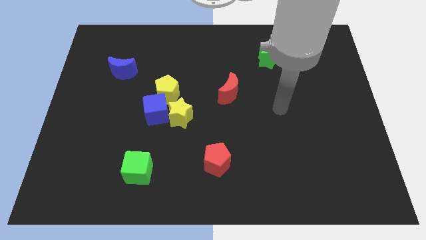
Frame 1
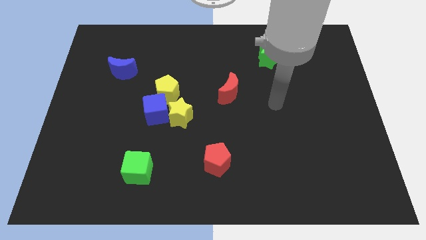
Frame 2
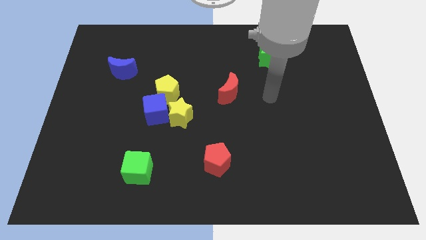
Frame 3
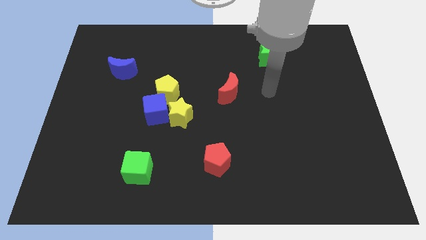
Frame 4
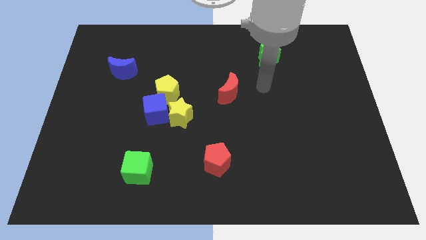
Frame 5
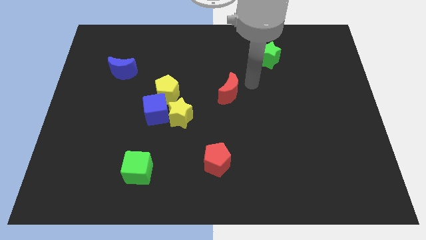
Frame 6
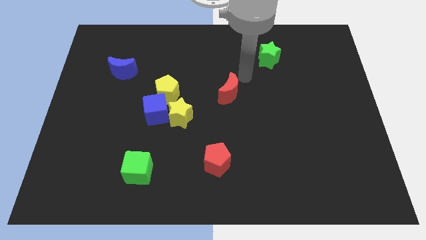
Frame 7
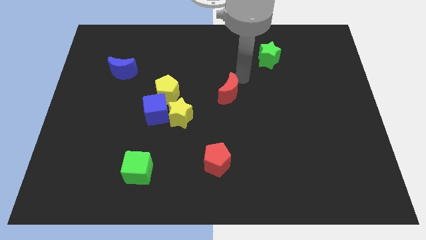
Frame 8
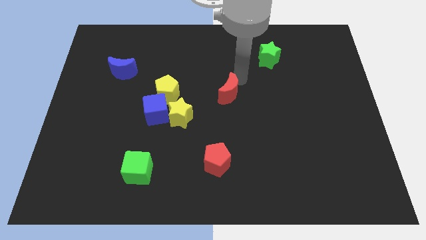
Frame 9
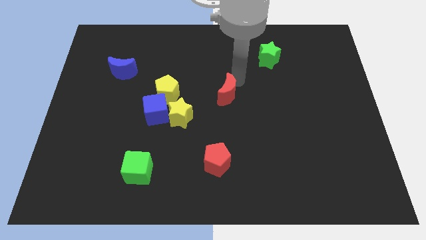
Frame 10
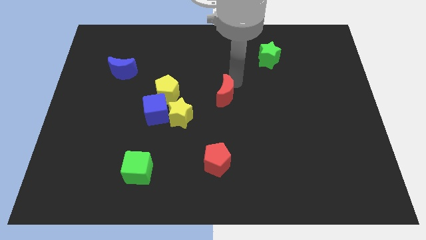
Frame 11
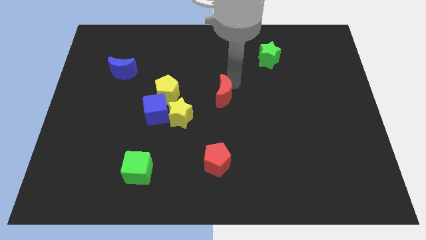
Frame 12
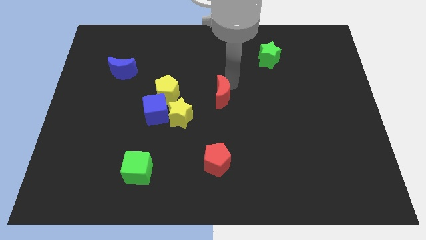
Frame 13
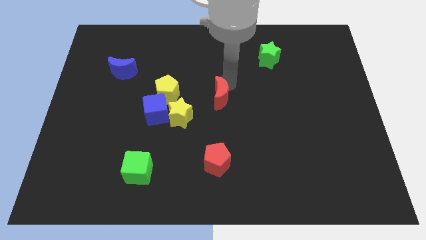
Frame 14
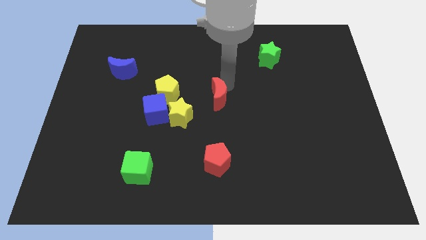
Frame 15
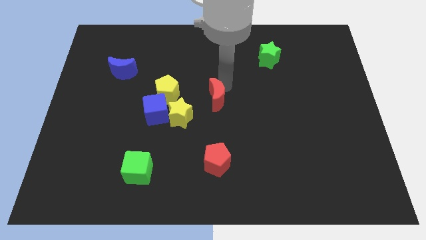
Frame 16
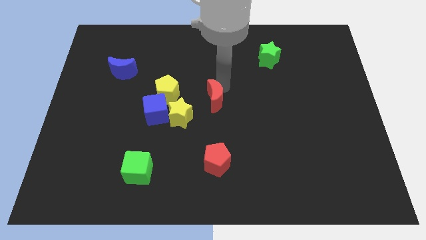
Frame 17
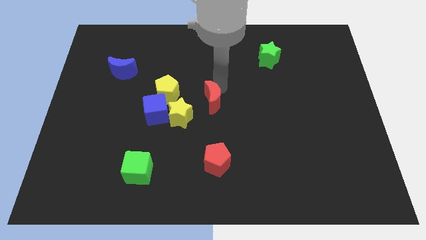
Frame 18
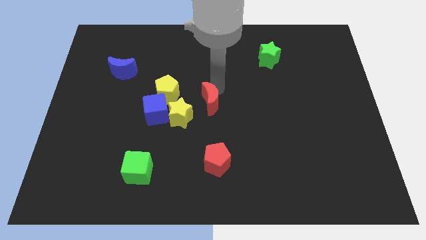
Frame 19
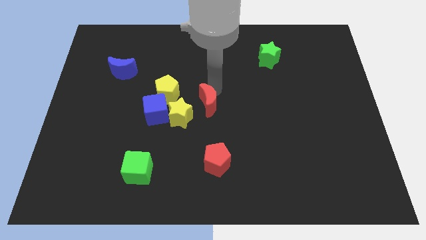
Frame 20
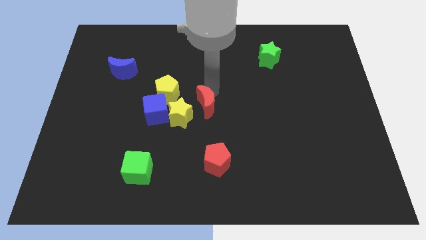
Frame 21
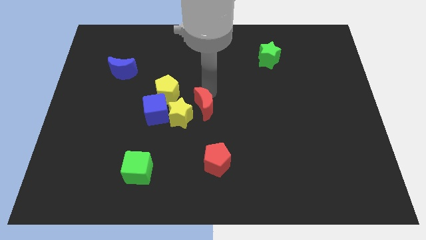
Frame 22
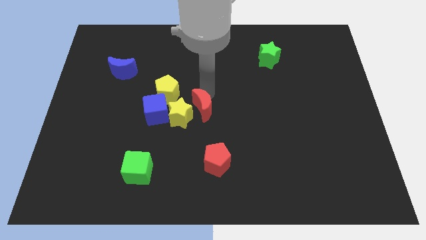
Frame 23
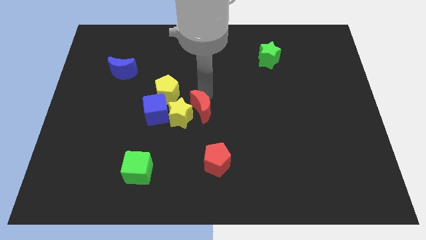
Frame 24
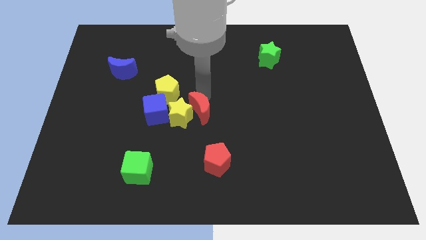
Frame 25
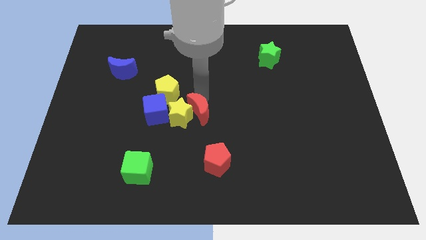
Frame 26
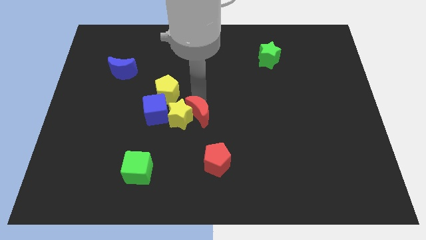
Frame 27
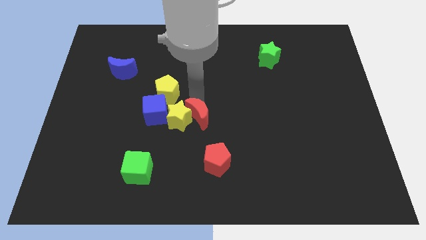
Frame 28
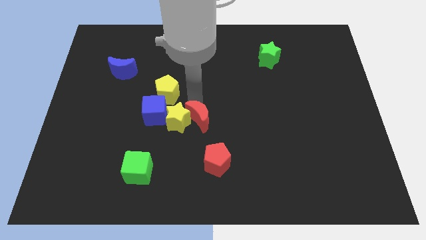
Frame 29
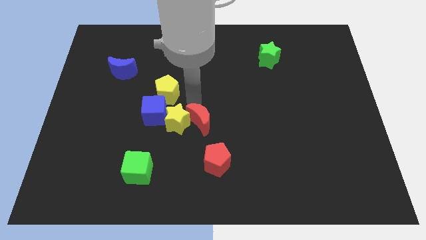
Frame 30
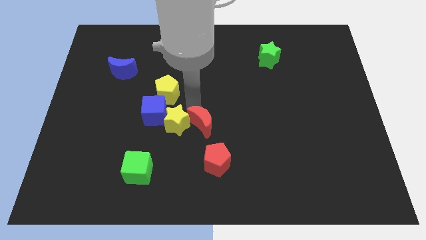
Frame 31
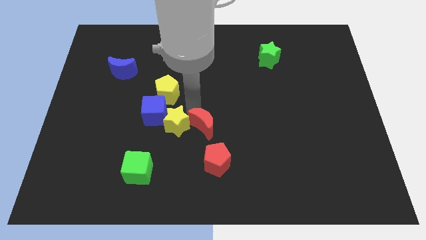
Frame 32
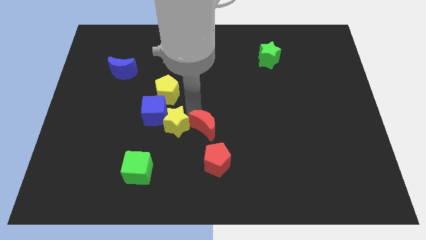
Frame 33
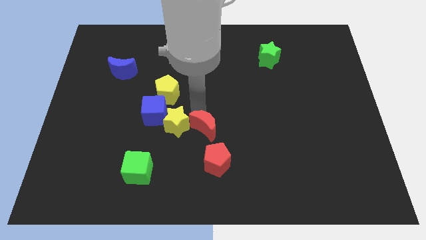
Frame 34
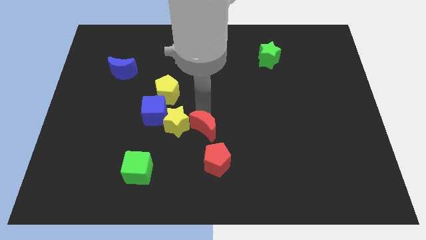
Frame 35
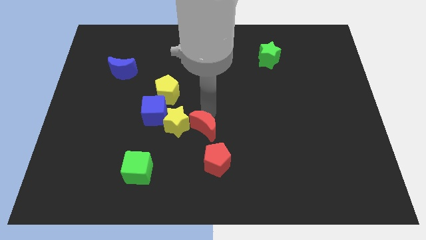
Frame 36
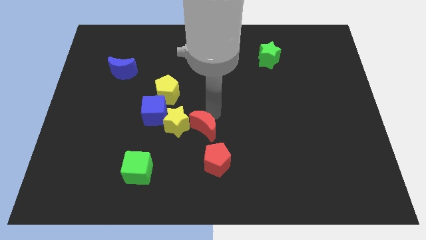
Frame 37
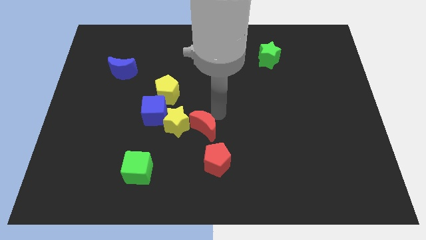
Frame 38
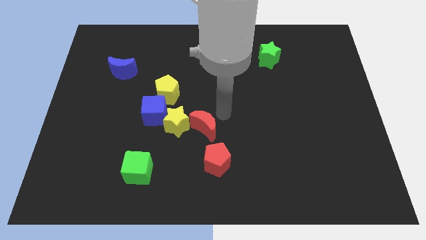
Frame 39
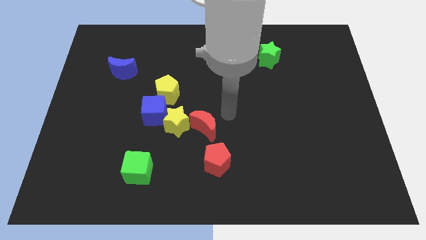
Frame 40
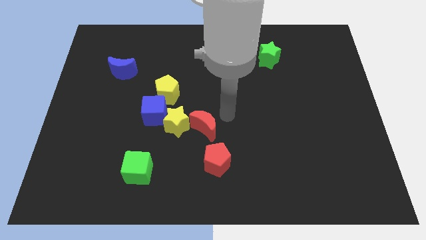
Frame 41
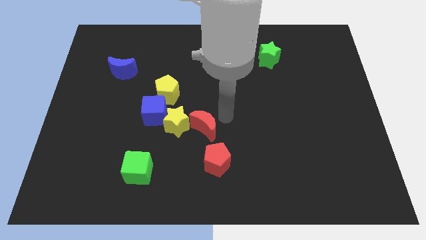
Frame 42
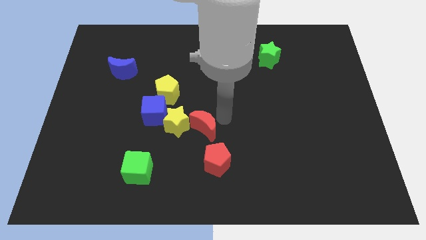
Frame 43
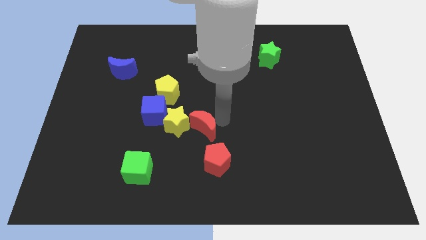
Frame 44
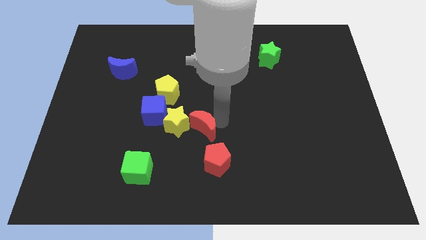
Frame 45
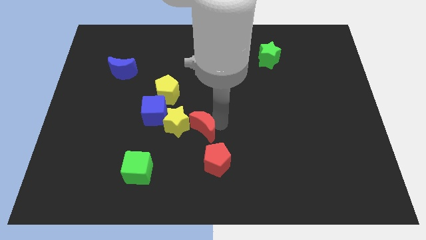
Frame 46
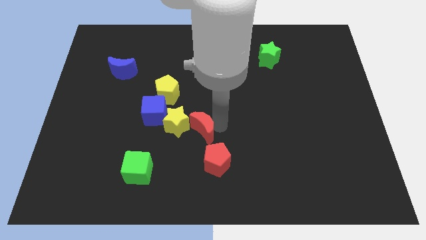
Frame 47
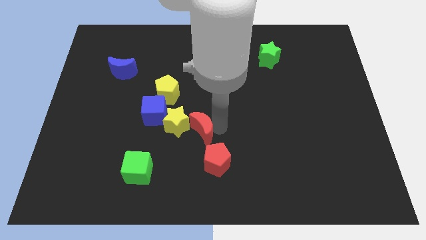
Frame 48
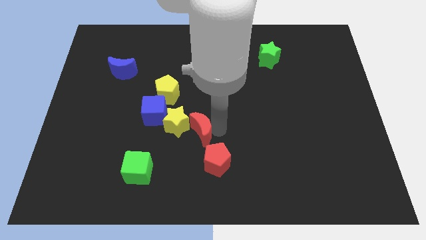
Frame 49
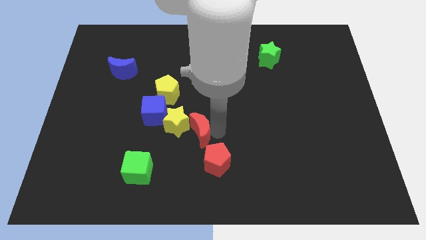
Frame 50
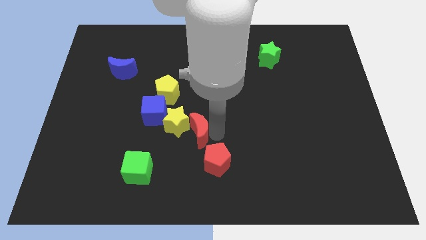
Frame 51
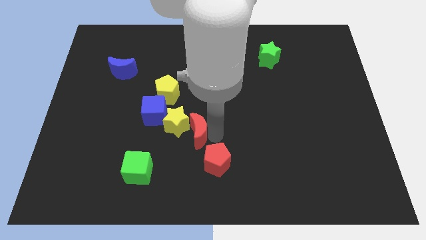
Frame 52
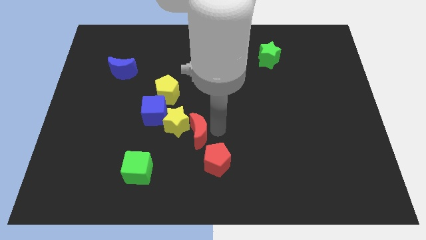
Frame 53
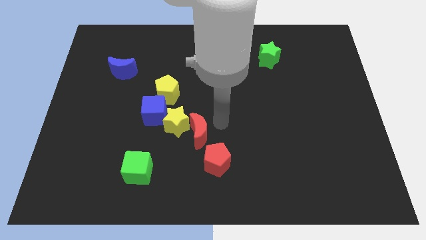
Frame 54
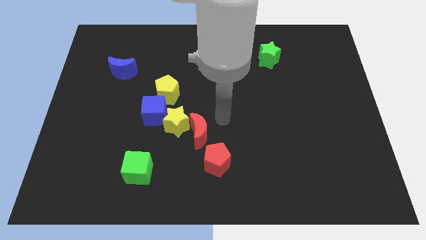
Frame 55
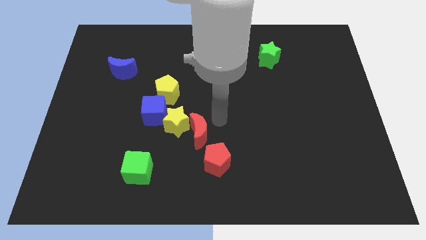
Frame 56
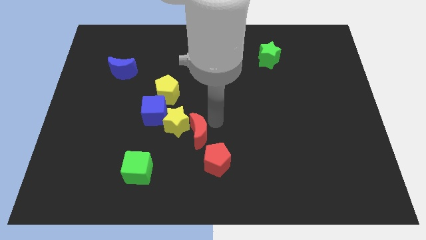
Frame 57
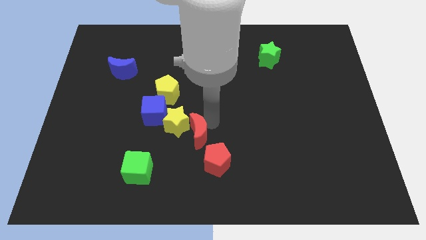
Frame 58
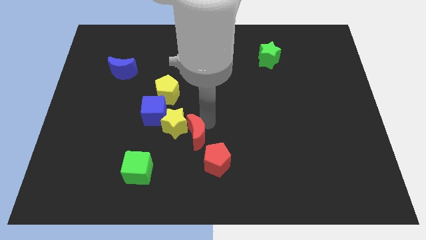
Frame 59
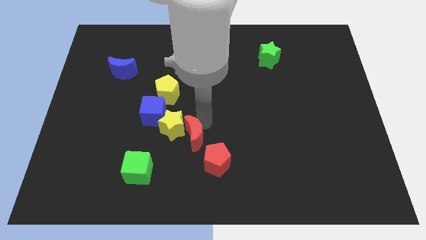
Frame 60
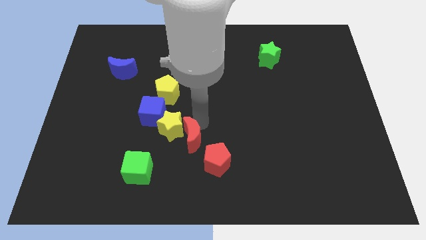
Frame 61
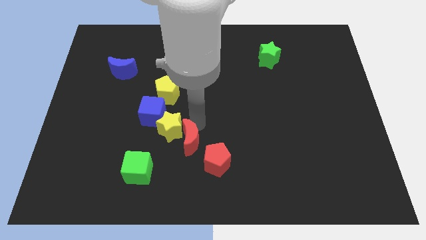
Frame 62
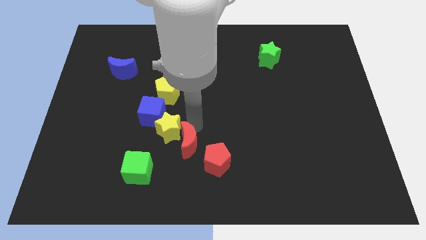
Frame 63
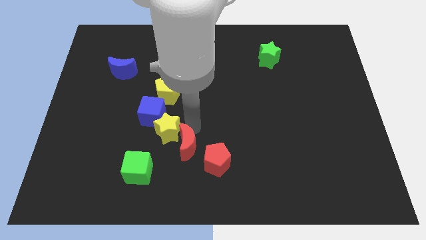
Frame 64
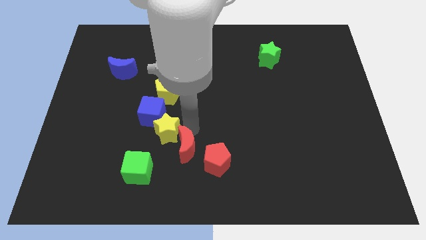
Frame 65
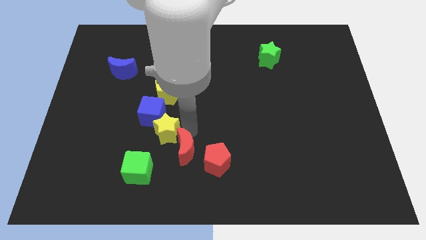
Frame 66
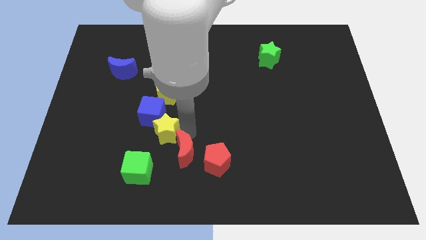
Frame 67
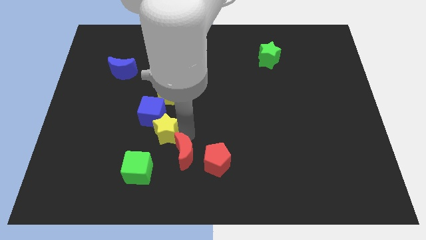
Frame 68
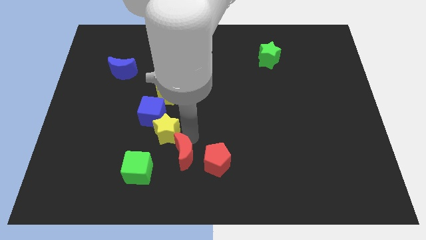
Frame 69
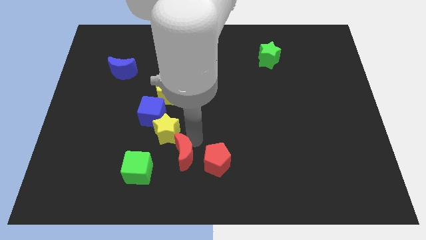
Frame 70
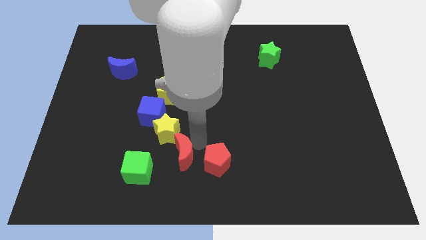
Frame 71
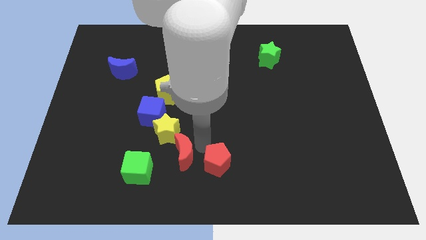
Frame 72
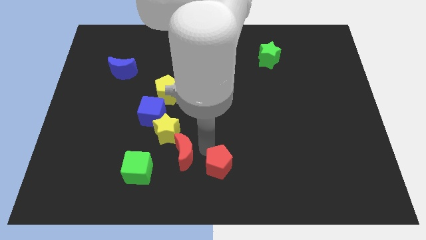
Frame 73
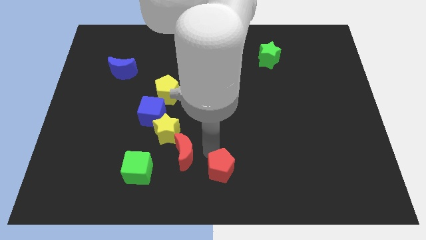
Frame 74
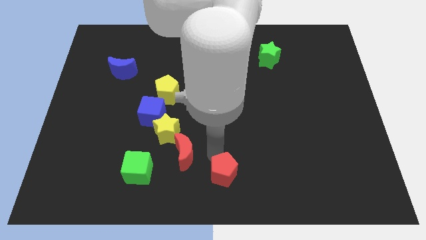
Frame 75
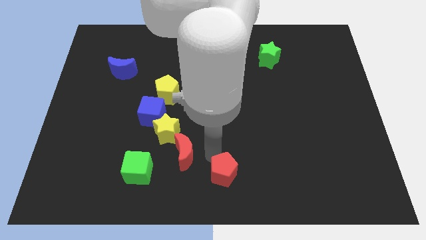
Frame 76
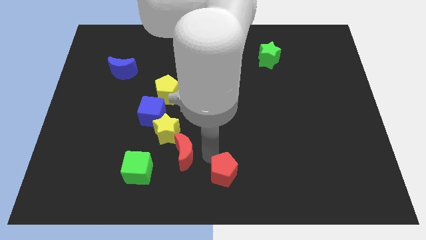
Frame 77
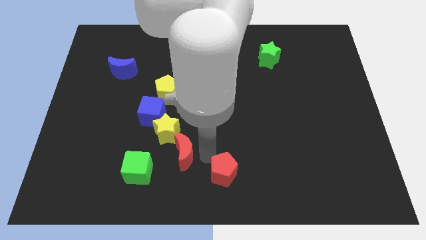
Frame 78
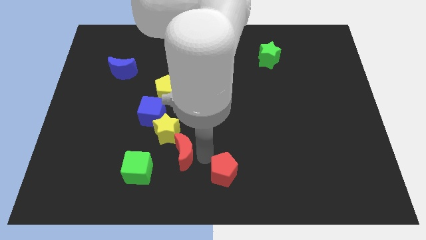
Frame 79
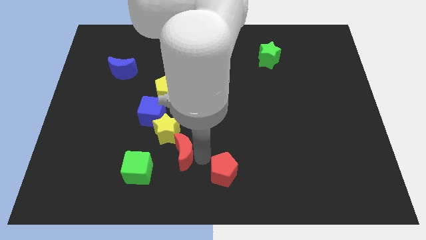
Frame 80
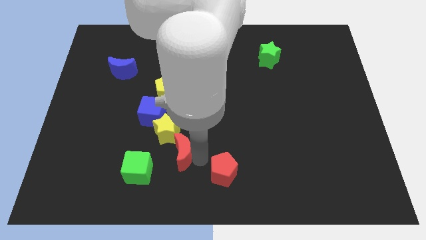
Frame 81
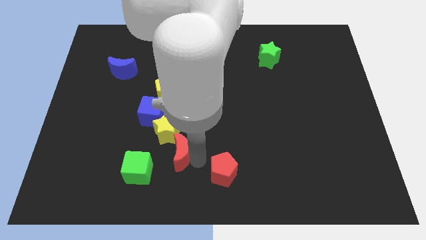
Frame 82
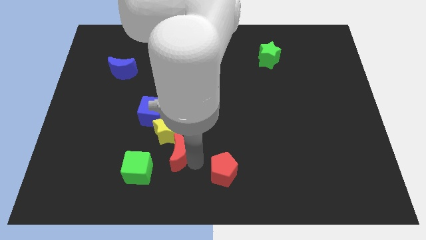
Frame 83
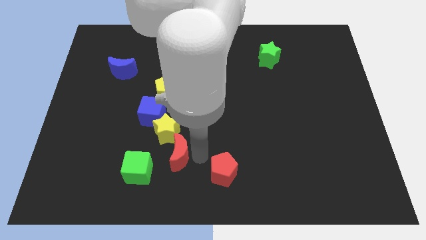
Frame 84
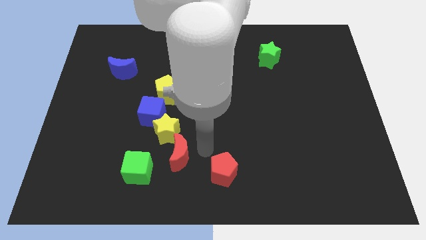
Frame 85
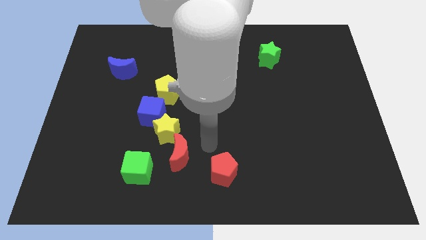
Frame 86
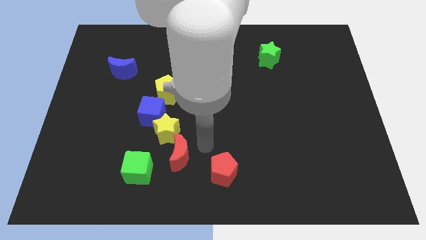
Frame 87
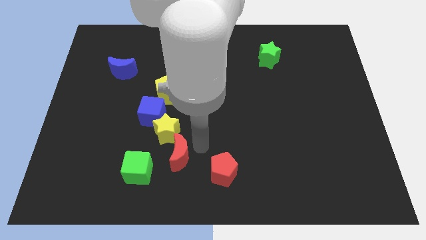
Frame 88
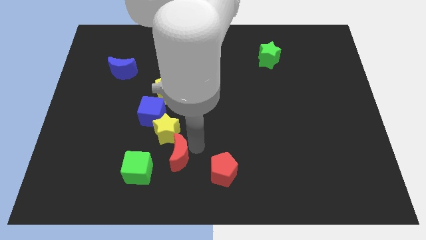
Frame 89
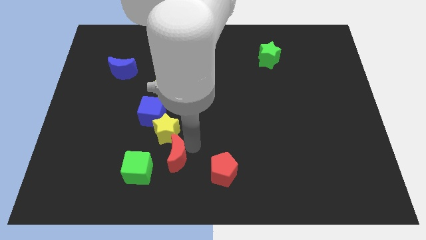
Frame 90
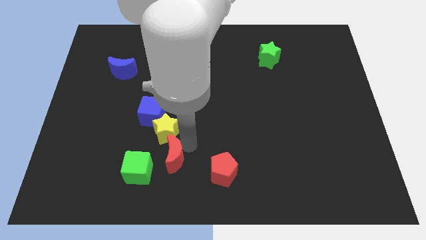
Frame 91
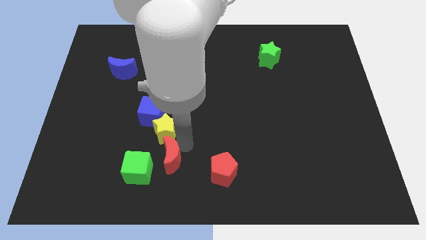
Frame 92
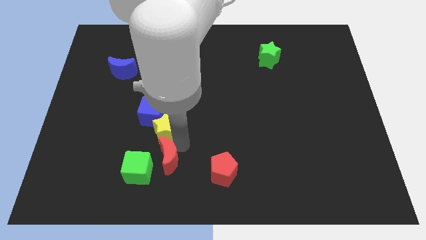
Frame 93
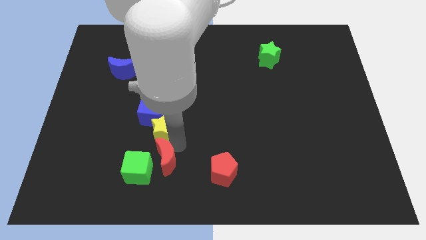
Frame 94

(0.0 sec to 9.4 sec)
push the red moon to the green cube
